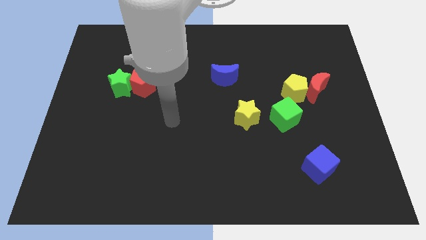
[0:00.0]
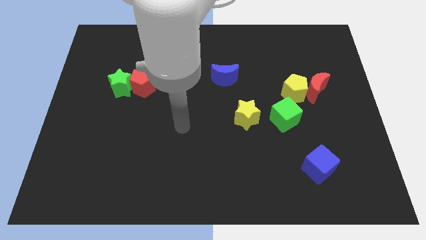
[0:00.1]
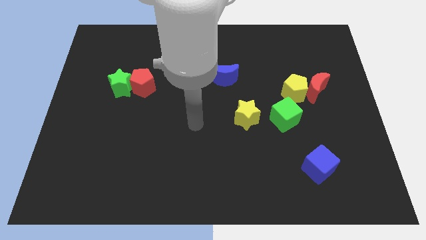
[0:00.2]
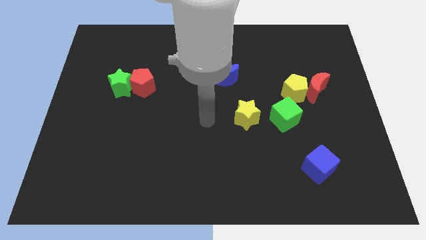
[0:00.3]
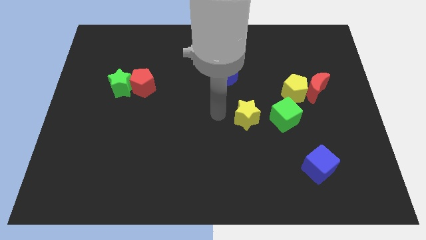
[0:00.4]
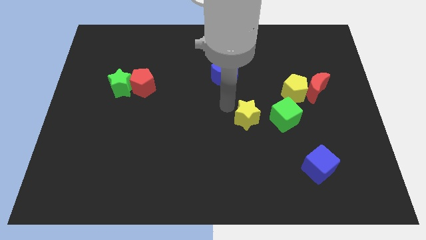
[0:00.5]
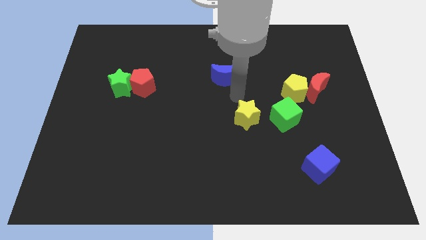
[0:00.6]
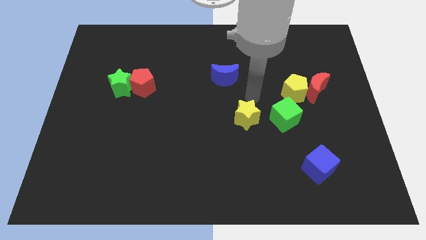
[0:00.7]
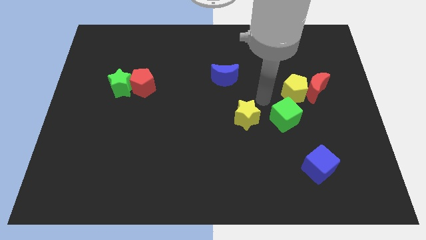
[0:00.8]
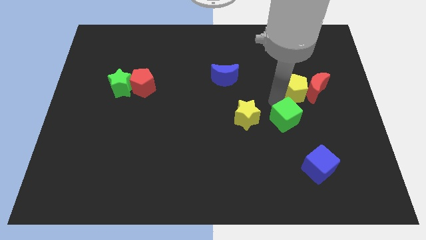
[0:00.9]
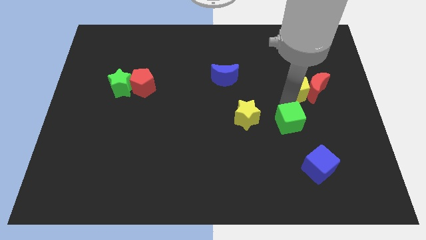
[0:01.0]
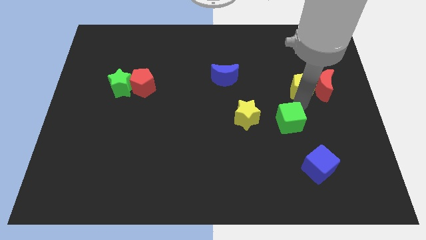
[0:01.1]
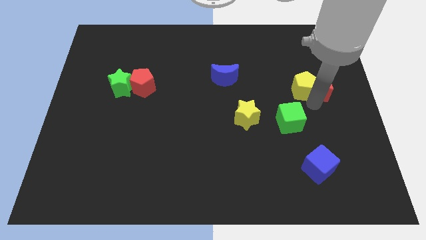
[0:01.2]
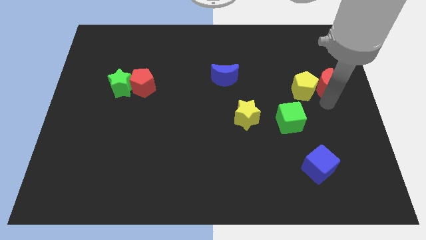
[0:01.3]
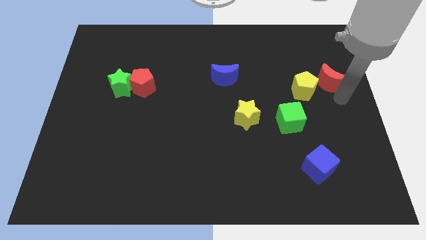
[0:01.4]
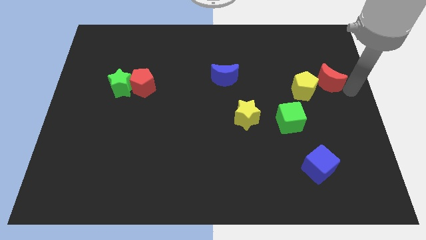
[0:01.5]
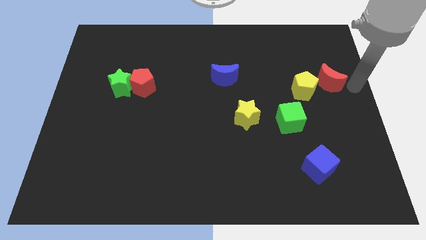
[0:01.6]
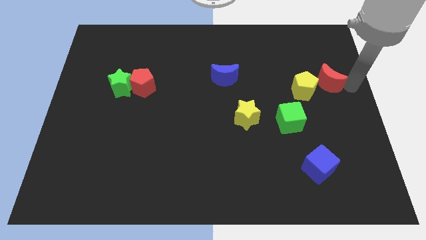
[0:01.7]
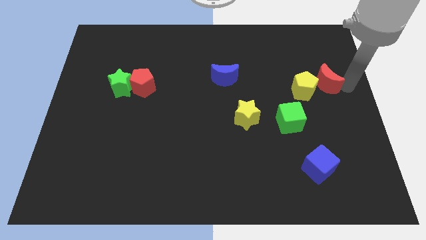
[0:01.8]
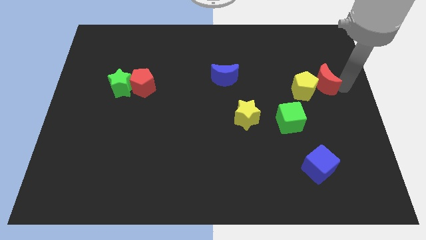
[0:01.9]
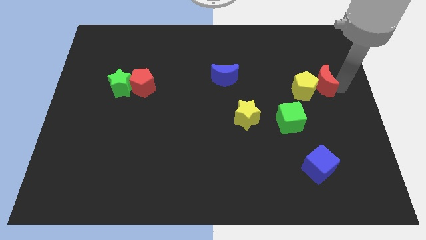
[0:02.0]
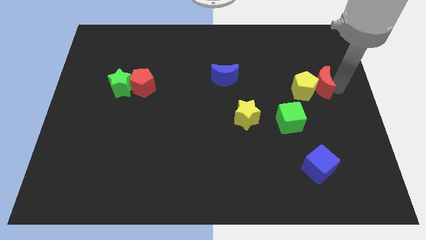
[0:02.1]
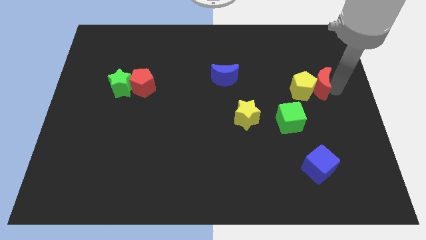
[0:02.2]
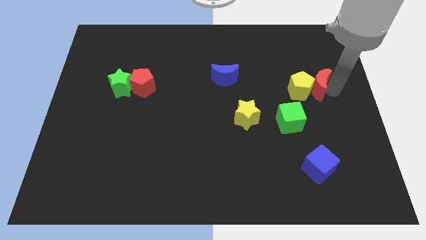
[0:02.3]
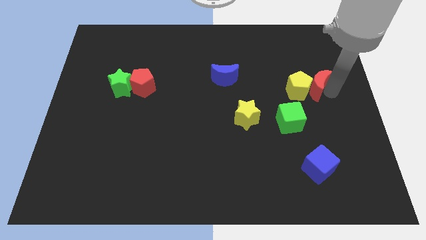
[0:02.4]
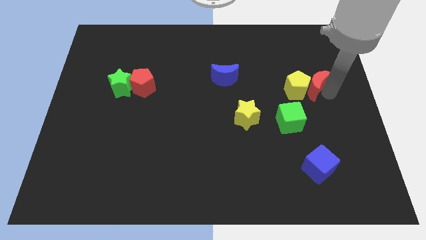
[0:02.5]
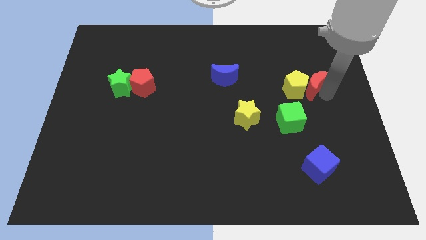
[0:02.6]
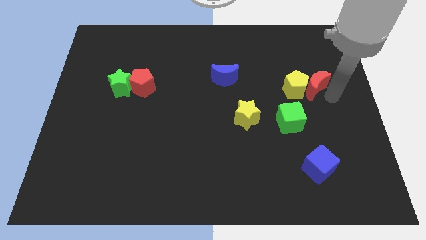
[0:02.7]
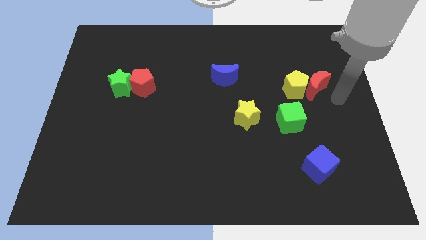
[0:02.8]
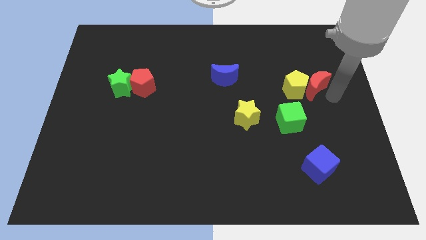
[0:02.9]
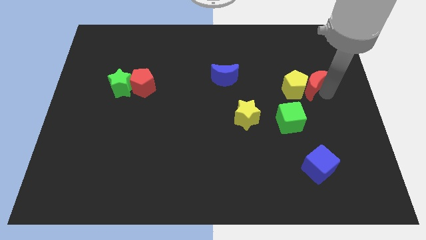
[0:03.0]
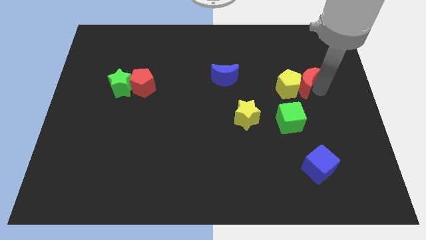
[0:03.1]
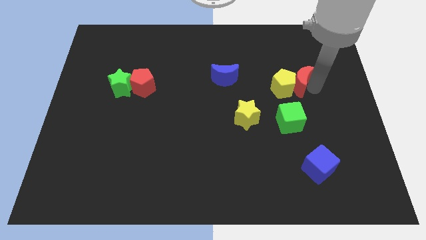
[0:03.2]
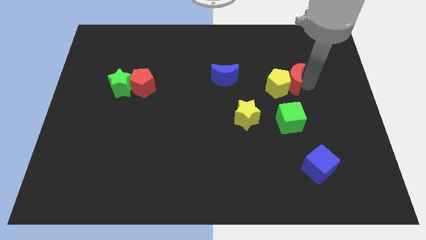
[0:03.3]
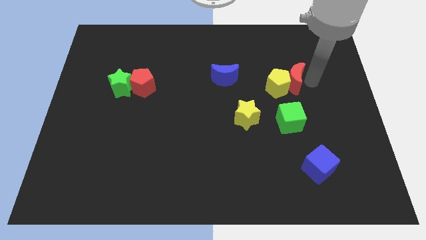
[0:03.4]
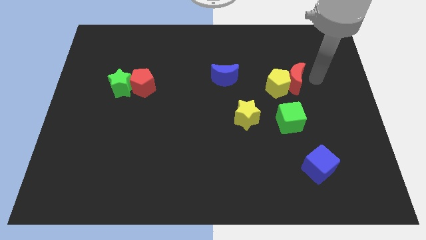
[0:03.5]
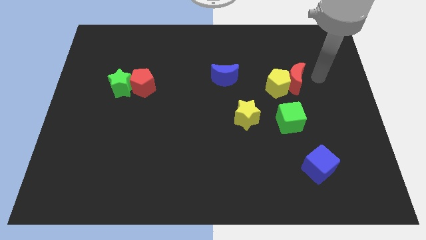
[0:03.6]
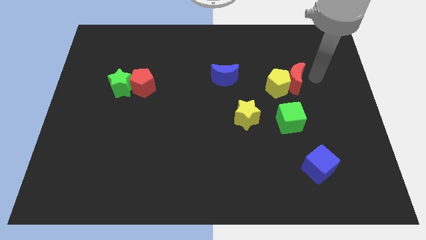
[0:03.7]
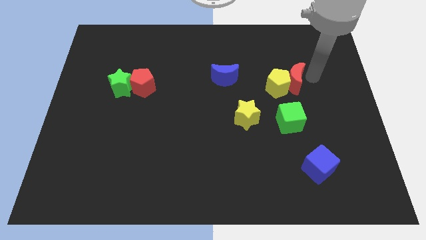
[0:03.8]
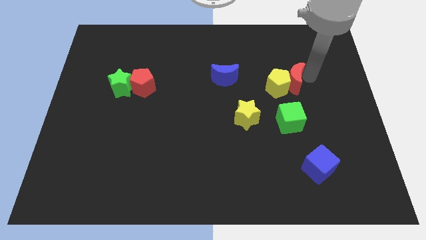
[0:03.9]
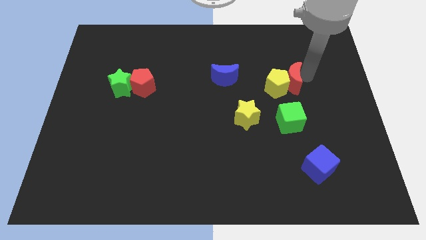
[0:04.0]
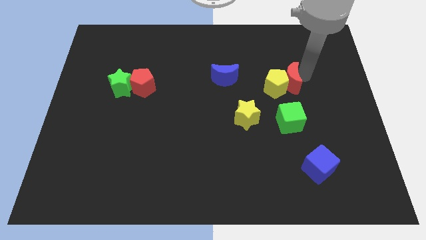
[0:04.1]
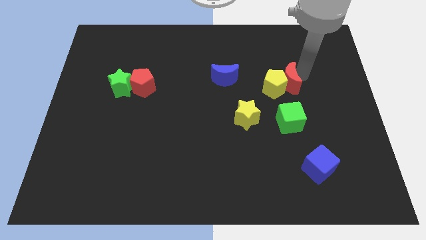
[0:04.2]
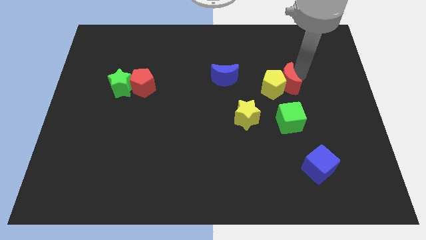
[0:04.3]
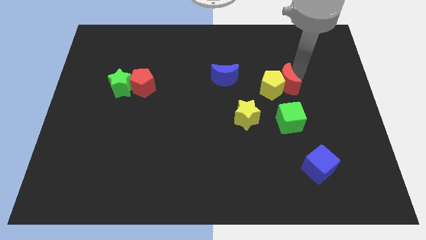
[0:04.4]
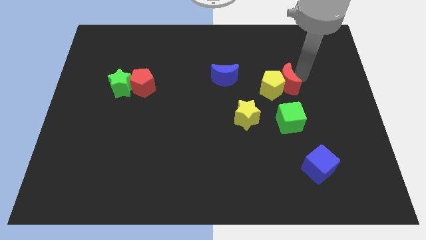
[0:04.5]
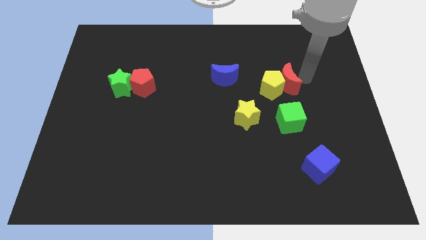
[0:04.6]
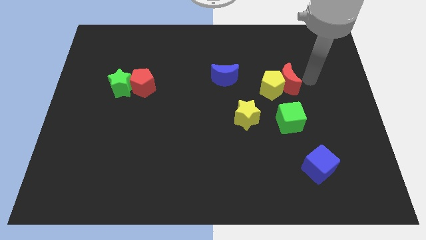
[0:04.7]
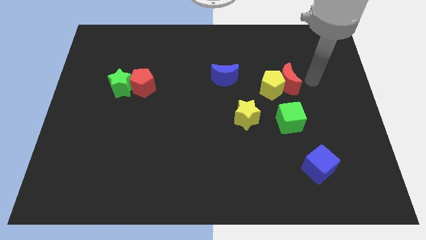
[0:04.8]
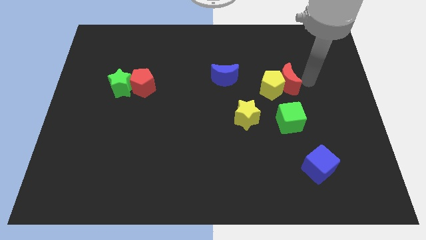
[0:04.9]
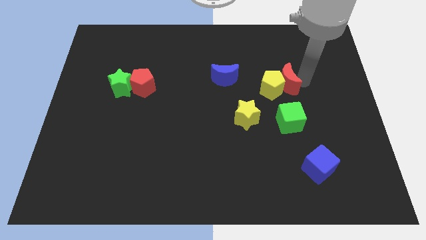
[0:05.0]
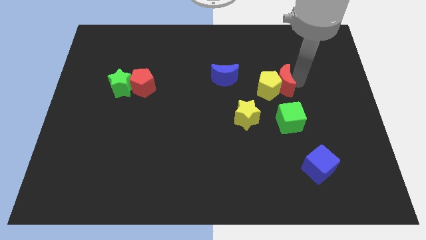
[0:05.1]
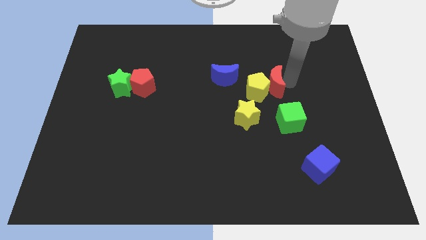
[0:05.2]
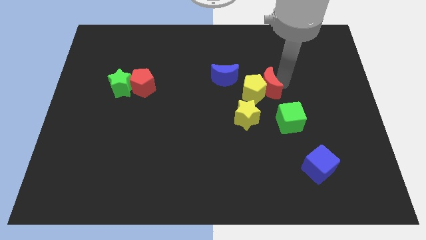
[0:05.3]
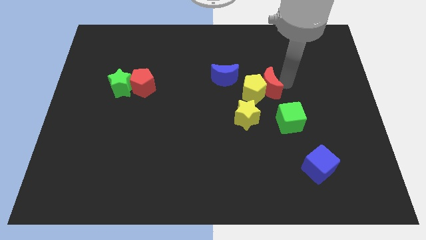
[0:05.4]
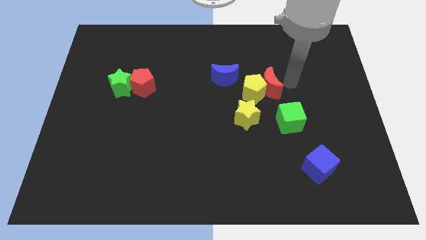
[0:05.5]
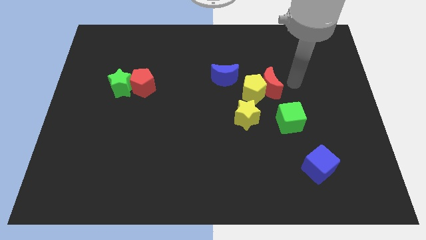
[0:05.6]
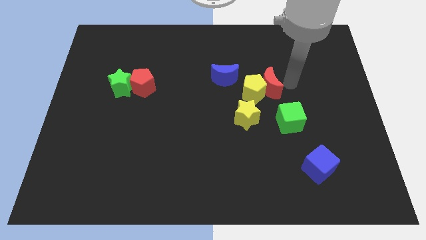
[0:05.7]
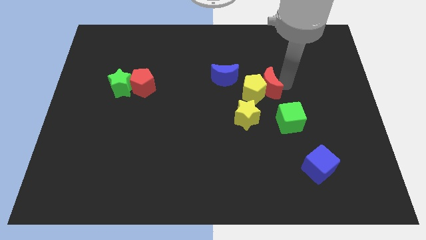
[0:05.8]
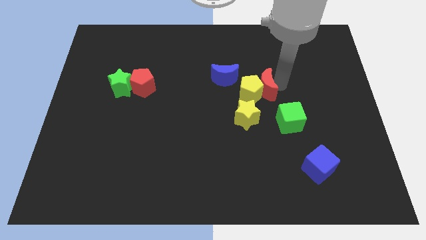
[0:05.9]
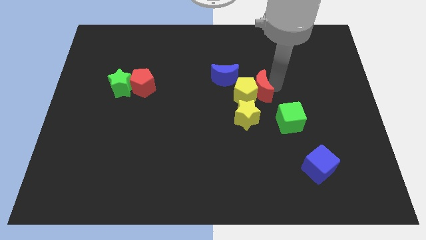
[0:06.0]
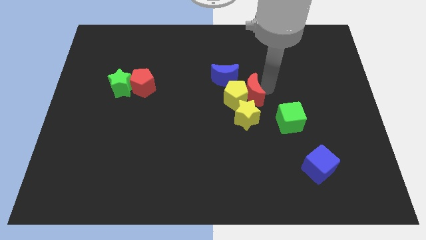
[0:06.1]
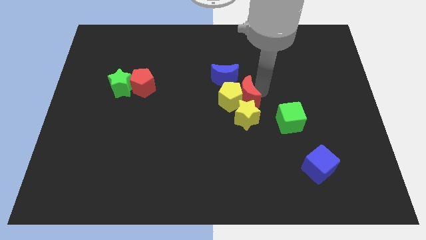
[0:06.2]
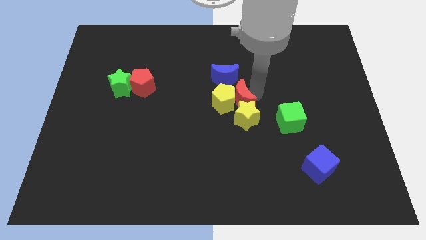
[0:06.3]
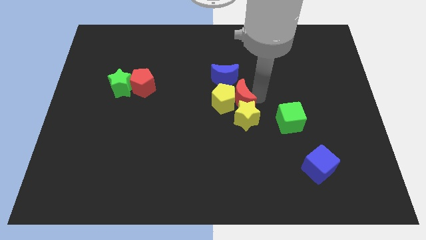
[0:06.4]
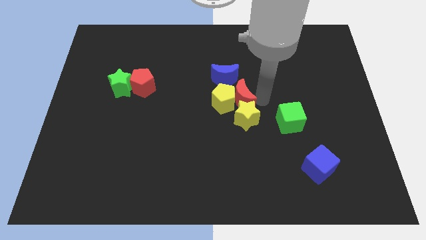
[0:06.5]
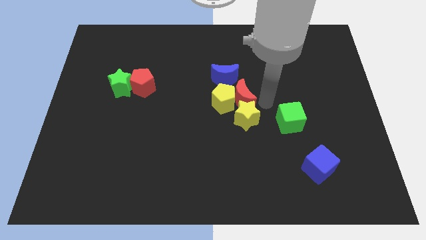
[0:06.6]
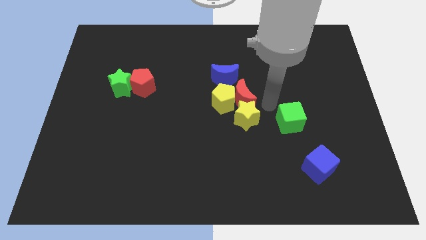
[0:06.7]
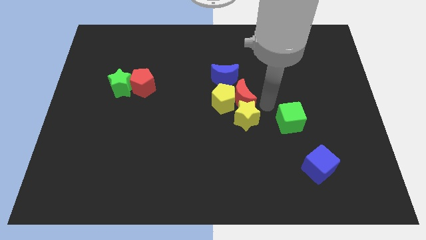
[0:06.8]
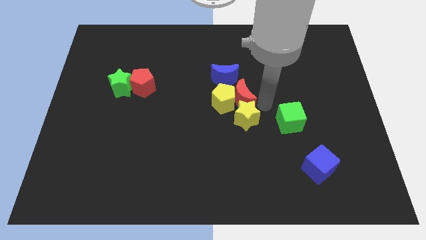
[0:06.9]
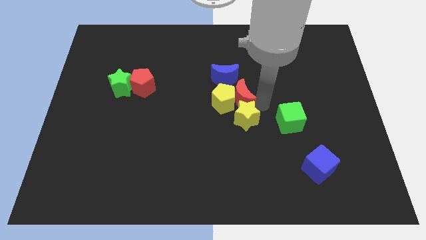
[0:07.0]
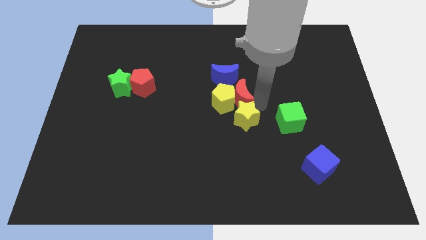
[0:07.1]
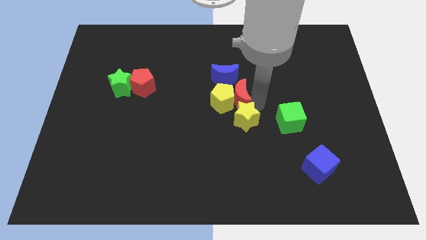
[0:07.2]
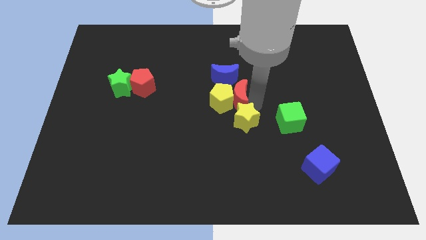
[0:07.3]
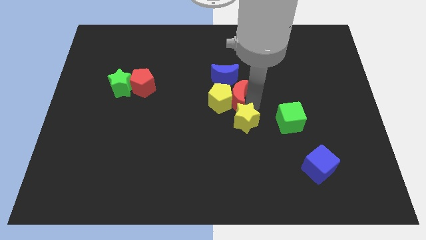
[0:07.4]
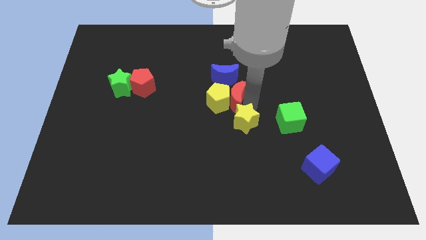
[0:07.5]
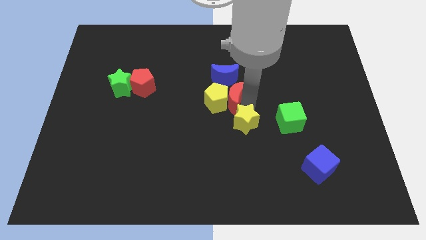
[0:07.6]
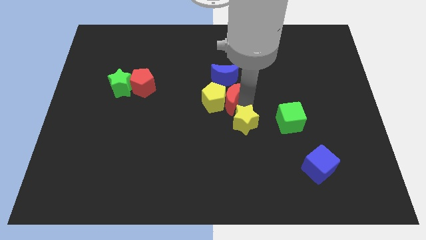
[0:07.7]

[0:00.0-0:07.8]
push the red moon left
